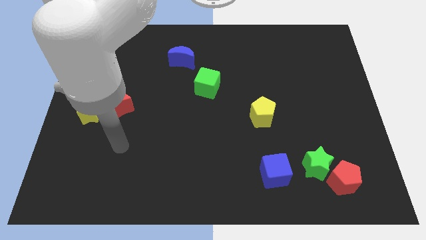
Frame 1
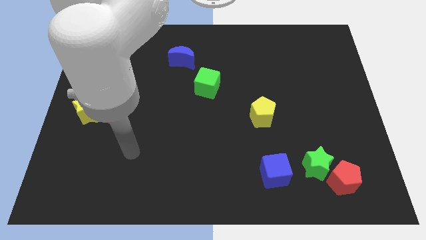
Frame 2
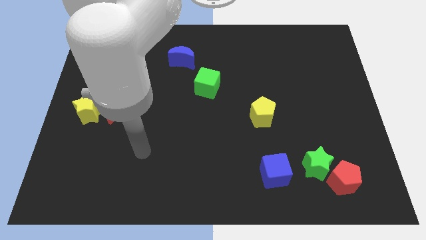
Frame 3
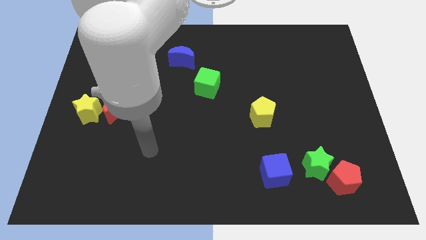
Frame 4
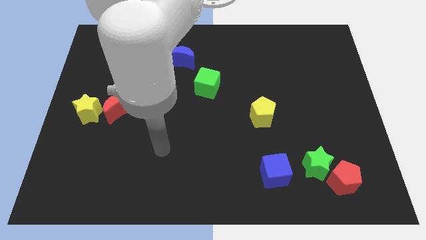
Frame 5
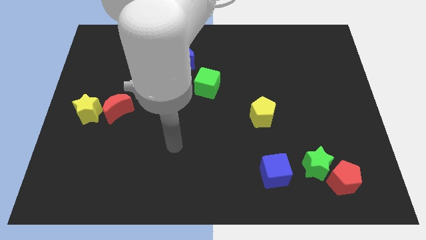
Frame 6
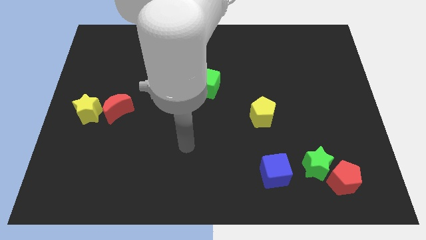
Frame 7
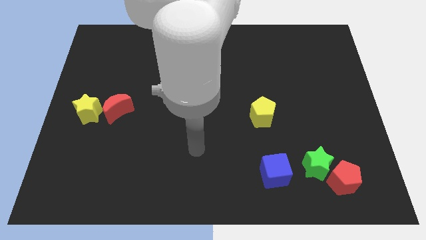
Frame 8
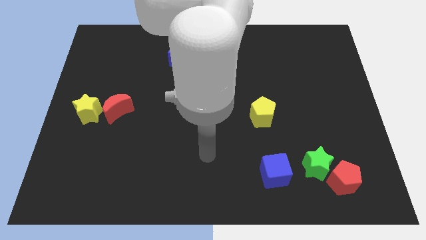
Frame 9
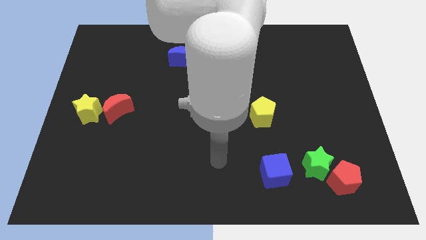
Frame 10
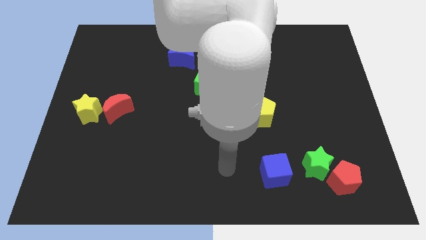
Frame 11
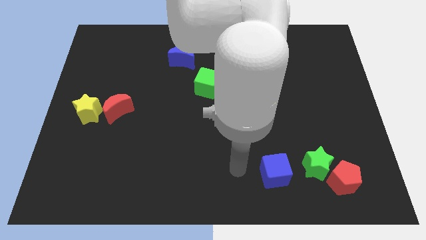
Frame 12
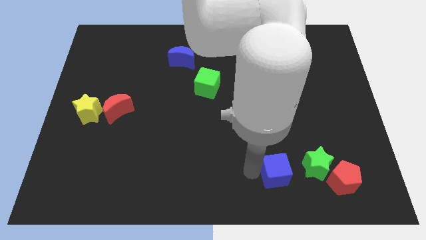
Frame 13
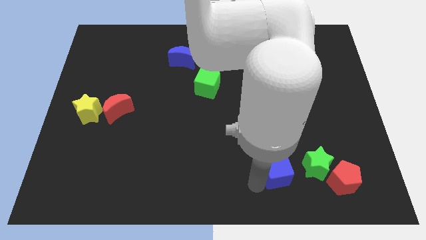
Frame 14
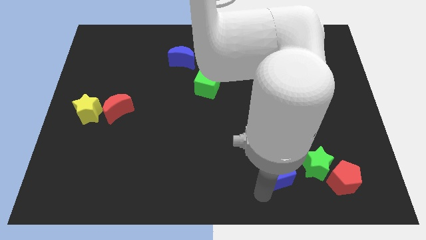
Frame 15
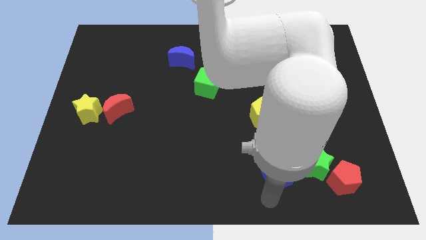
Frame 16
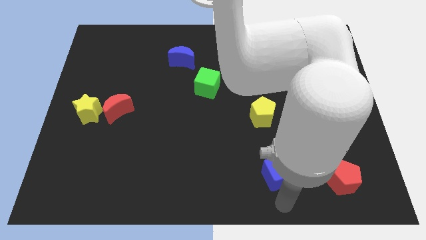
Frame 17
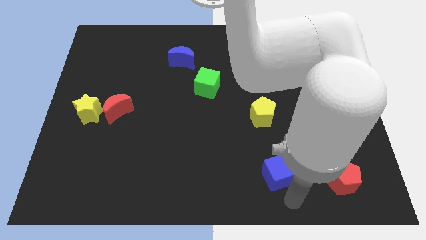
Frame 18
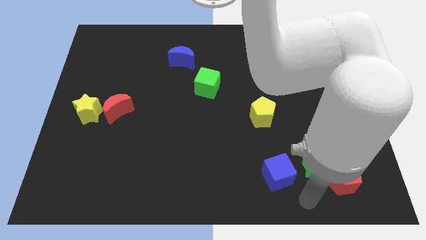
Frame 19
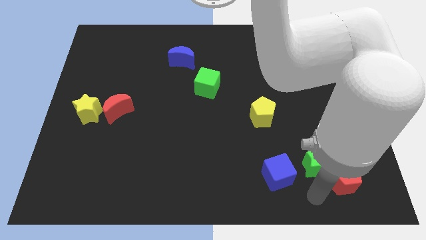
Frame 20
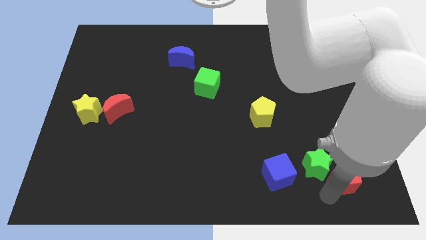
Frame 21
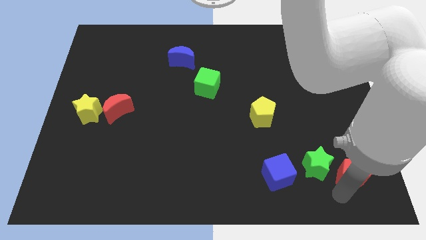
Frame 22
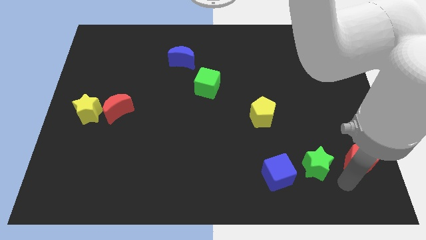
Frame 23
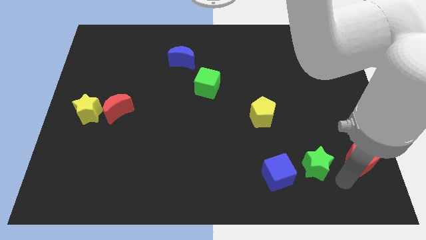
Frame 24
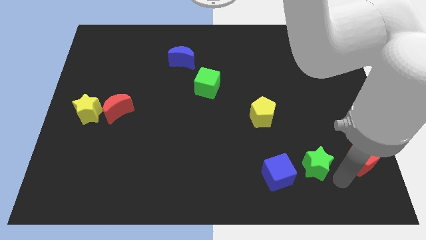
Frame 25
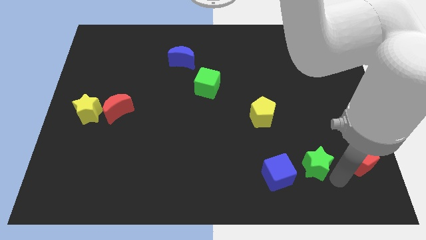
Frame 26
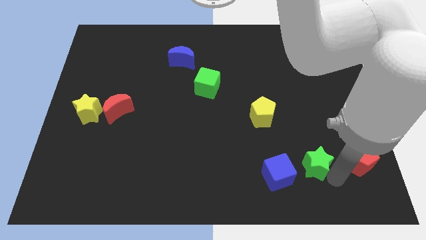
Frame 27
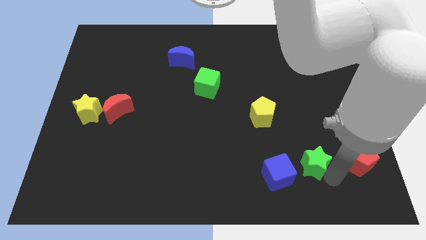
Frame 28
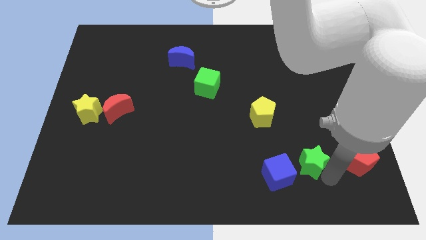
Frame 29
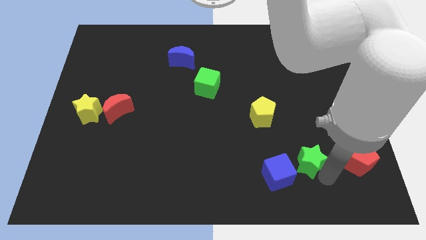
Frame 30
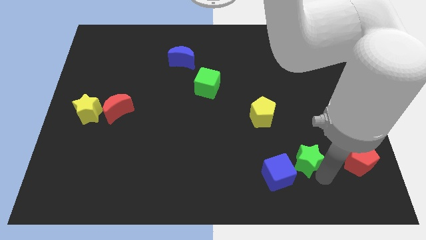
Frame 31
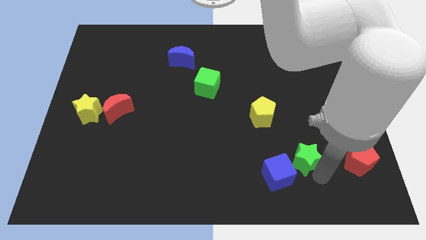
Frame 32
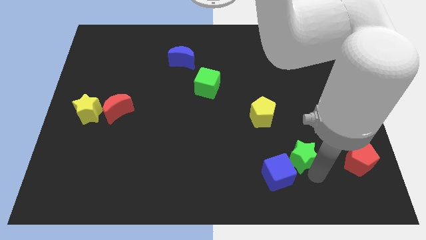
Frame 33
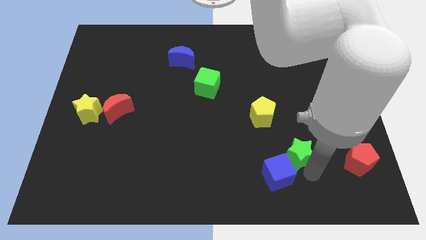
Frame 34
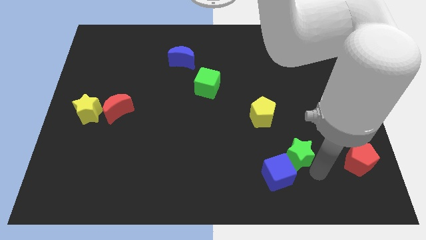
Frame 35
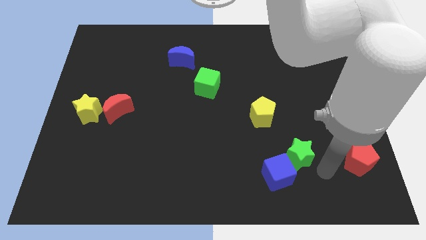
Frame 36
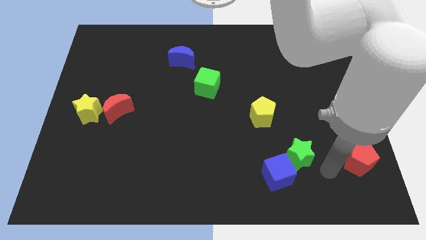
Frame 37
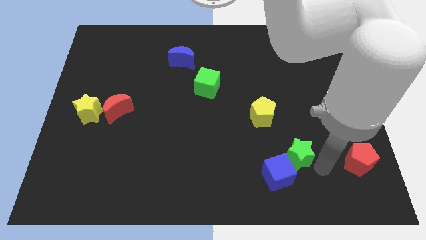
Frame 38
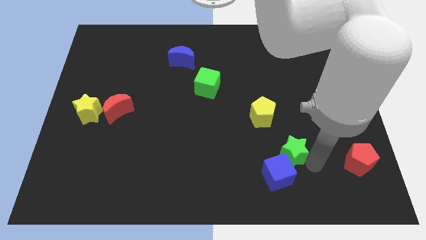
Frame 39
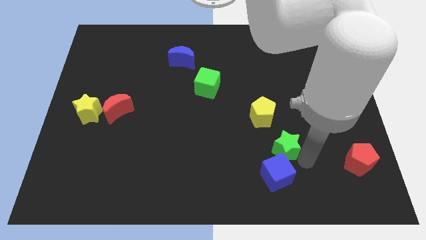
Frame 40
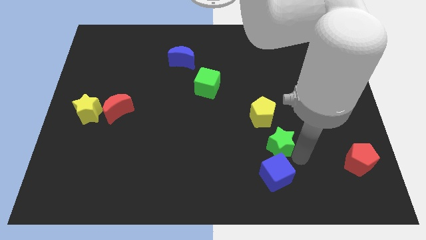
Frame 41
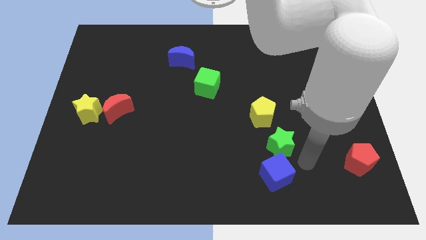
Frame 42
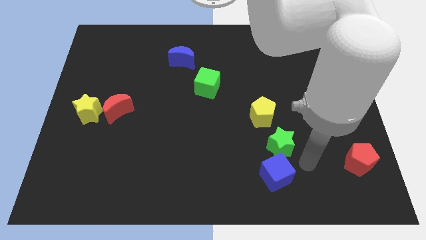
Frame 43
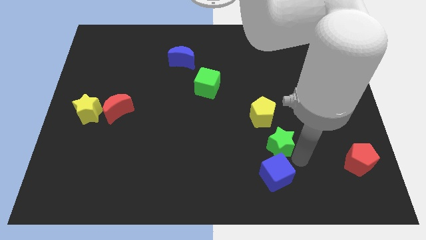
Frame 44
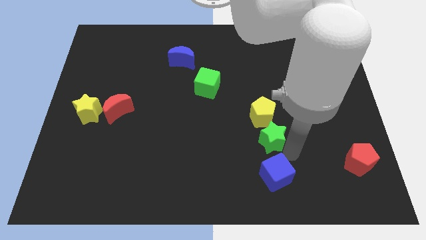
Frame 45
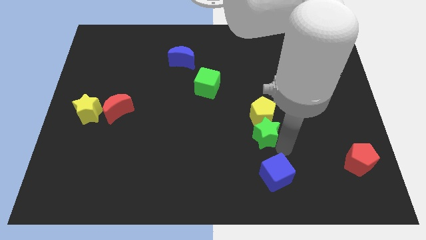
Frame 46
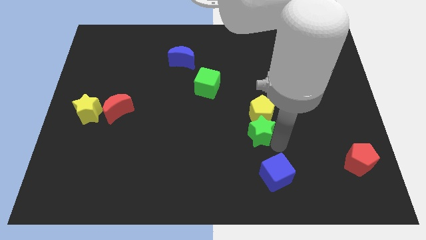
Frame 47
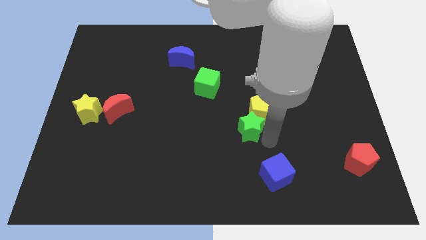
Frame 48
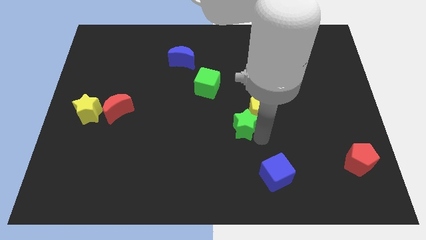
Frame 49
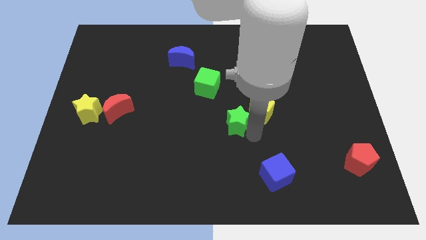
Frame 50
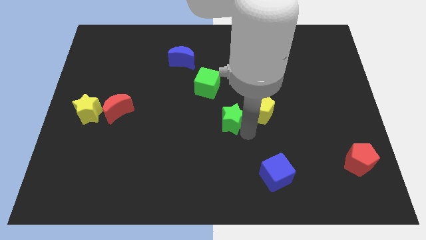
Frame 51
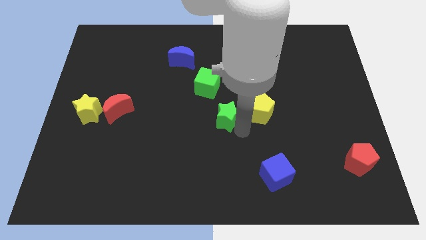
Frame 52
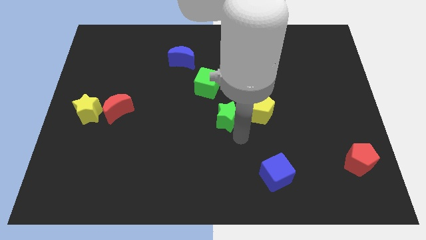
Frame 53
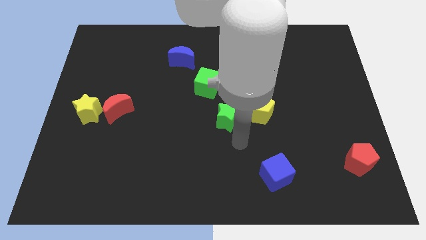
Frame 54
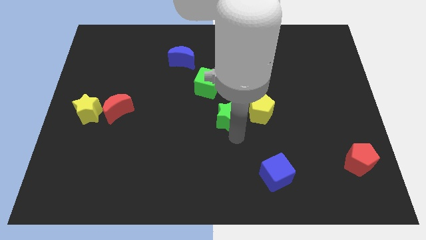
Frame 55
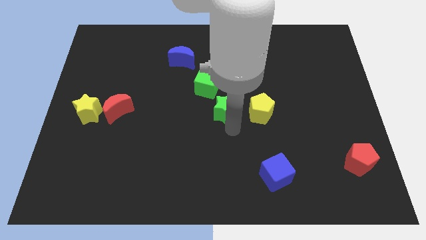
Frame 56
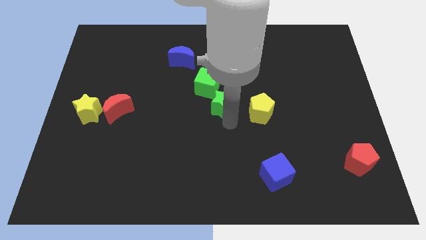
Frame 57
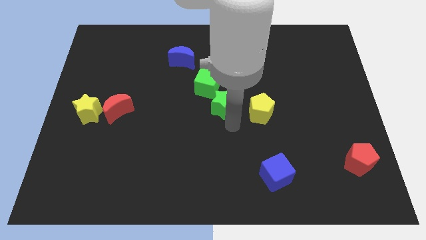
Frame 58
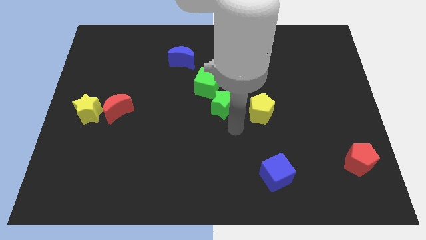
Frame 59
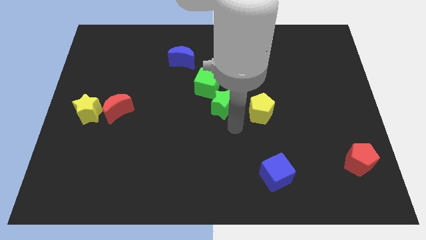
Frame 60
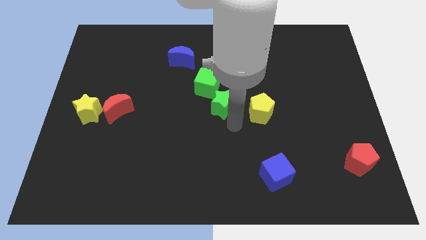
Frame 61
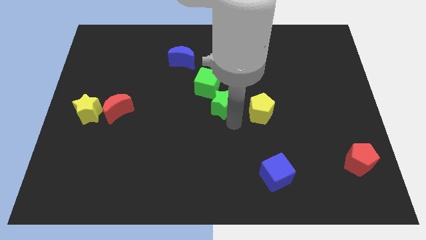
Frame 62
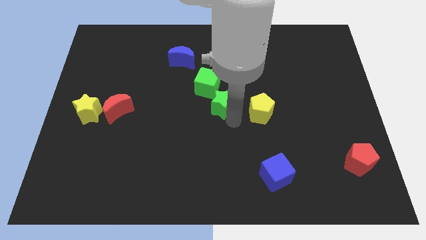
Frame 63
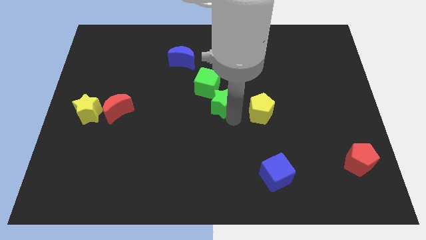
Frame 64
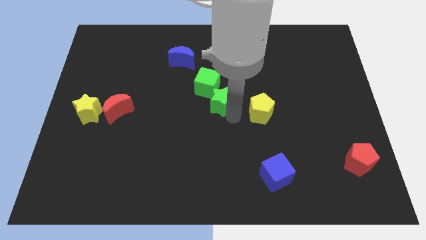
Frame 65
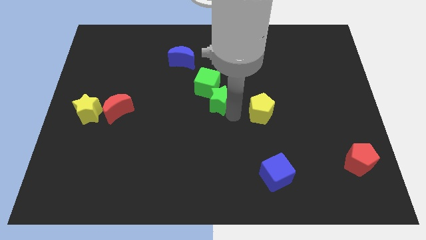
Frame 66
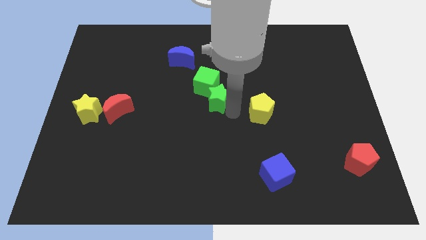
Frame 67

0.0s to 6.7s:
move the green star close to the green cube
